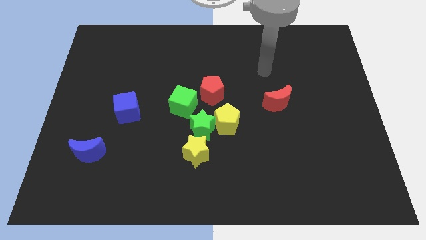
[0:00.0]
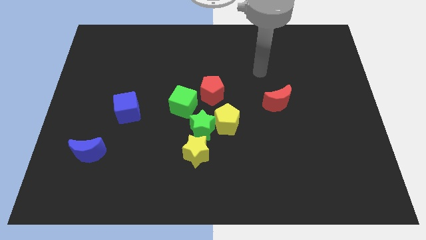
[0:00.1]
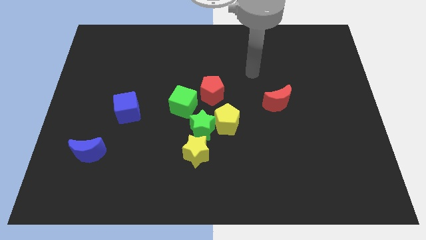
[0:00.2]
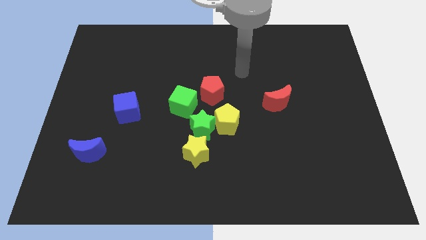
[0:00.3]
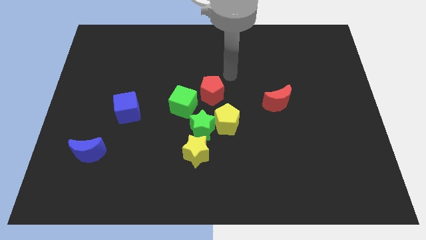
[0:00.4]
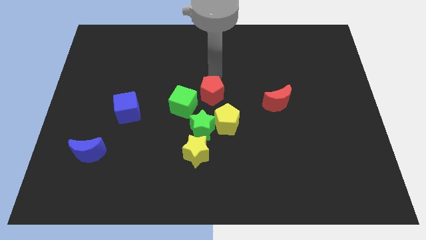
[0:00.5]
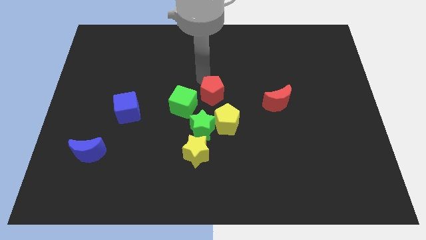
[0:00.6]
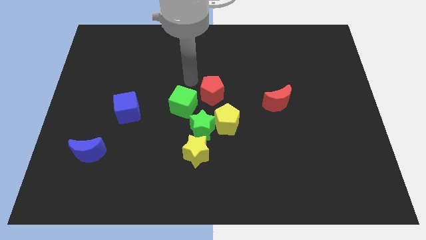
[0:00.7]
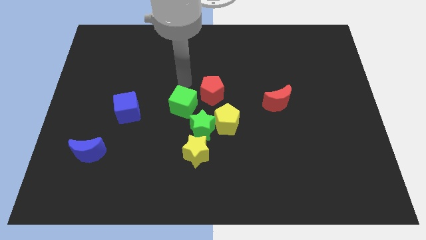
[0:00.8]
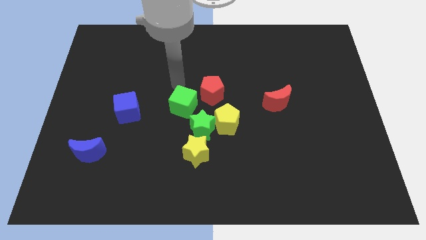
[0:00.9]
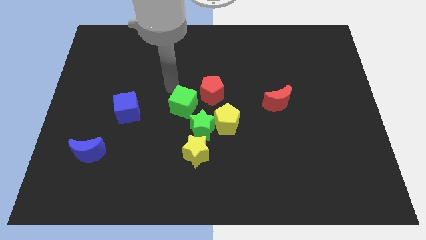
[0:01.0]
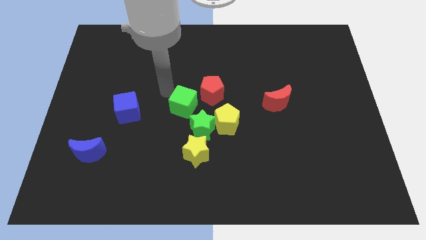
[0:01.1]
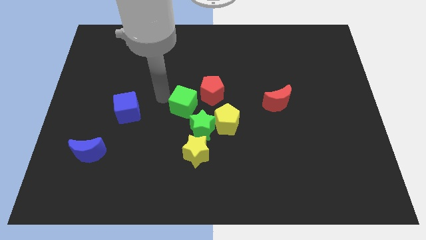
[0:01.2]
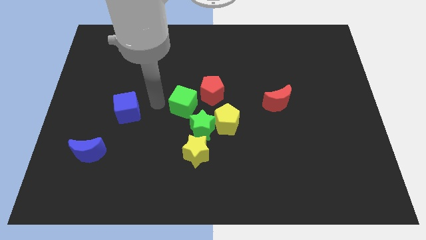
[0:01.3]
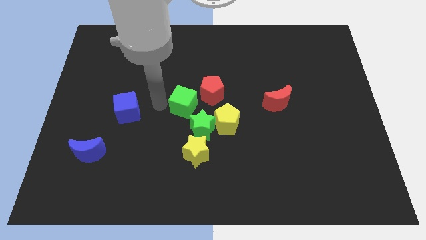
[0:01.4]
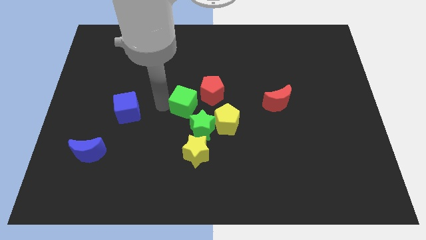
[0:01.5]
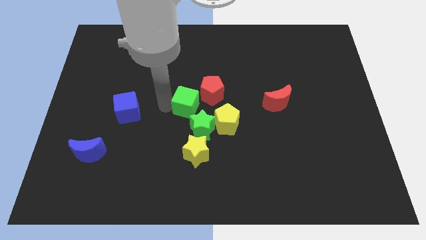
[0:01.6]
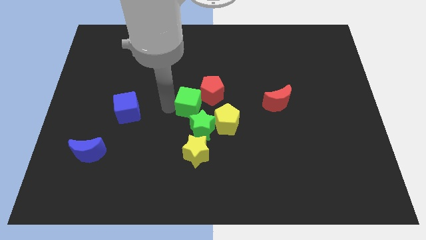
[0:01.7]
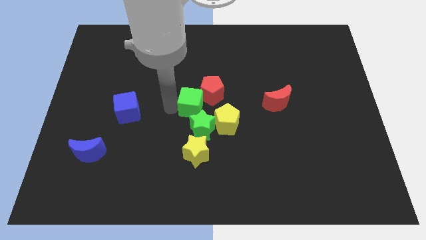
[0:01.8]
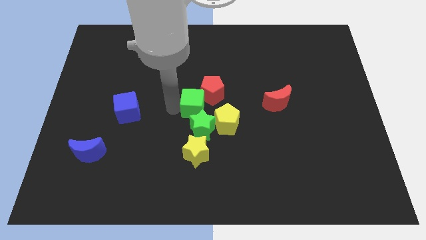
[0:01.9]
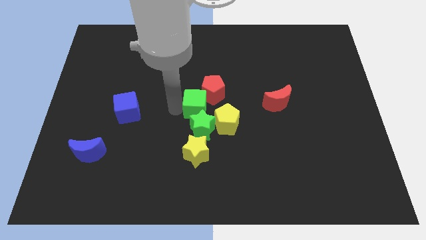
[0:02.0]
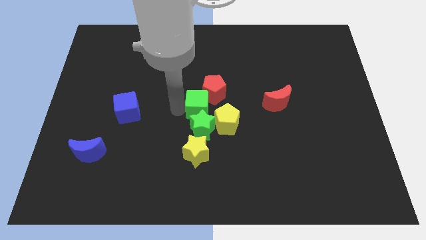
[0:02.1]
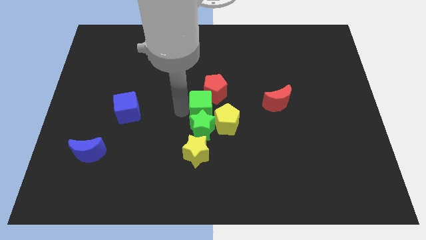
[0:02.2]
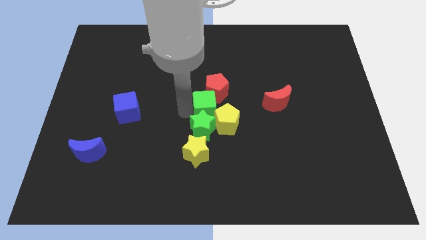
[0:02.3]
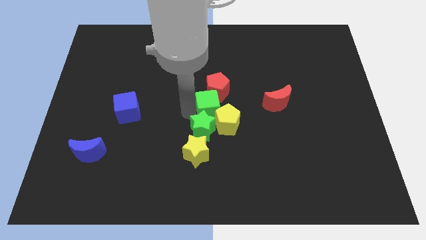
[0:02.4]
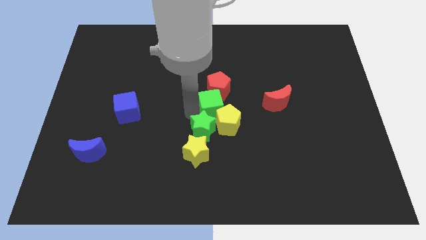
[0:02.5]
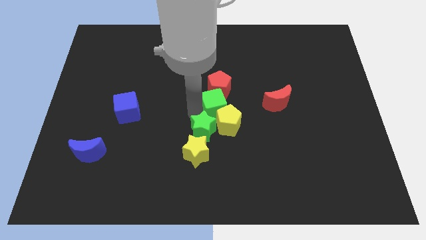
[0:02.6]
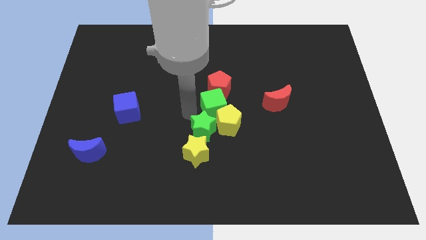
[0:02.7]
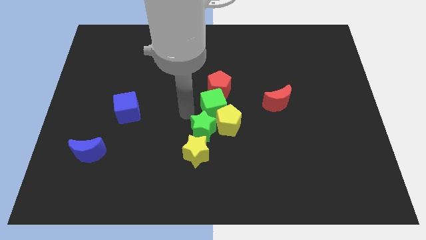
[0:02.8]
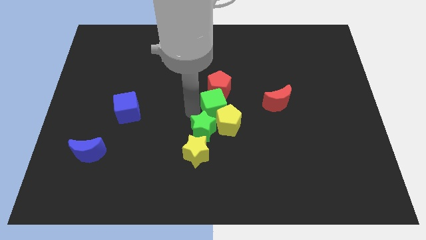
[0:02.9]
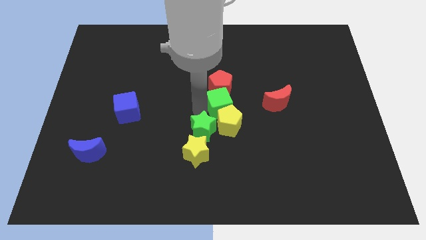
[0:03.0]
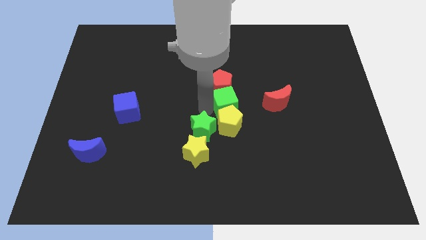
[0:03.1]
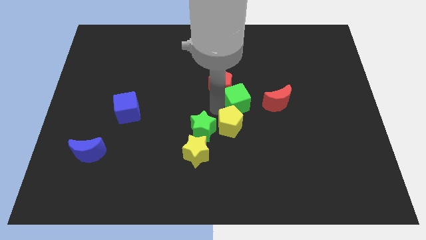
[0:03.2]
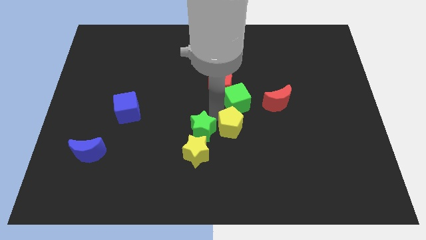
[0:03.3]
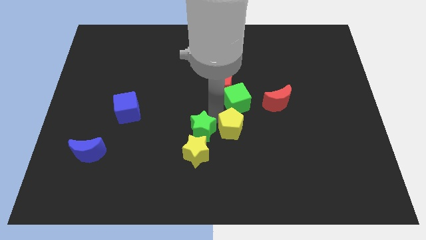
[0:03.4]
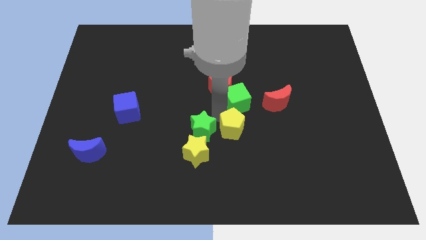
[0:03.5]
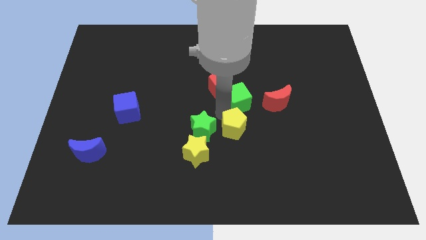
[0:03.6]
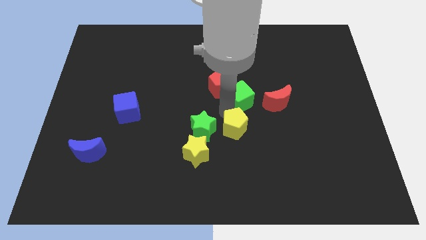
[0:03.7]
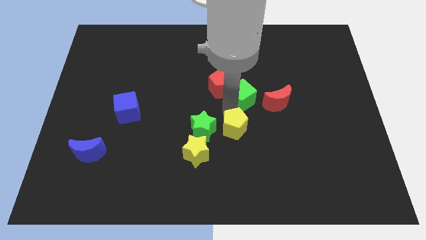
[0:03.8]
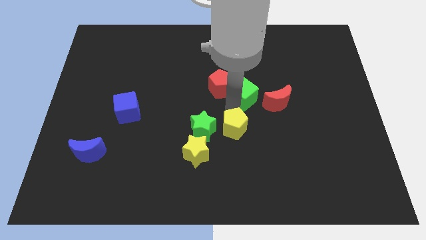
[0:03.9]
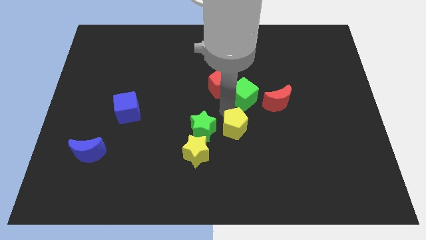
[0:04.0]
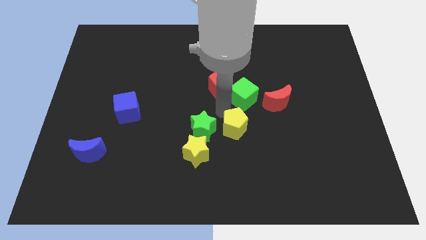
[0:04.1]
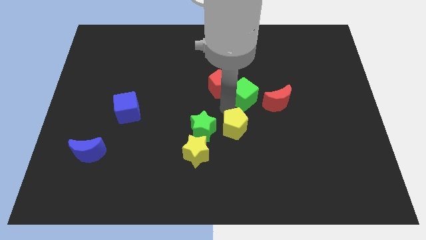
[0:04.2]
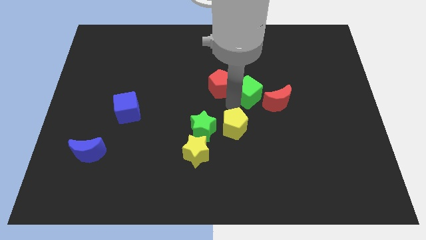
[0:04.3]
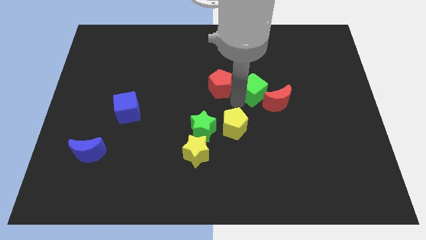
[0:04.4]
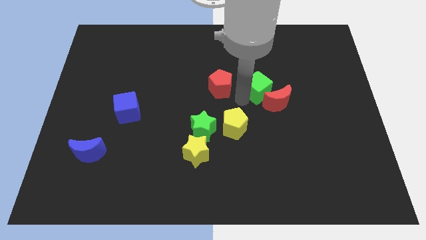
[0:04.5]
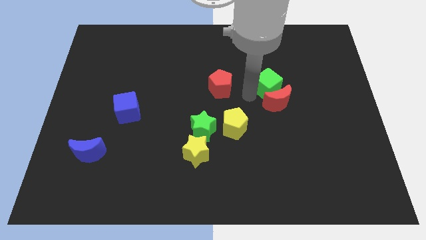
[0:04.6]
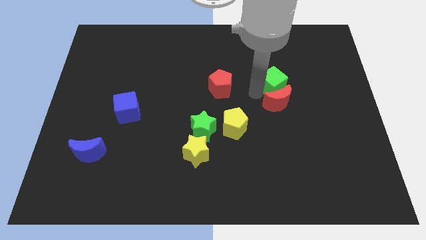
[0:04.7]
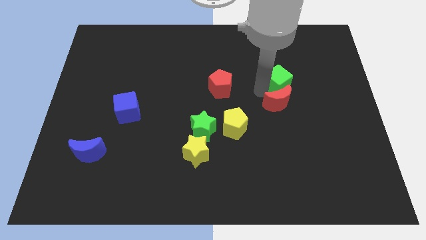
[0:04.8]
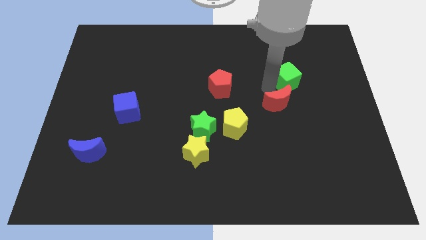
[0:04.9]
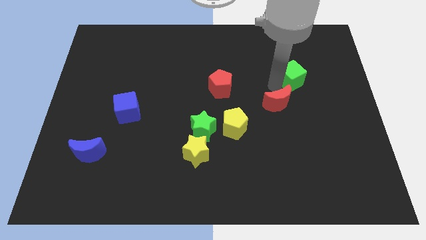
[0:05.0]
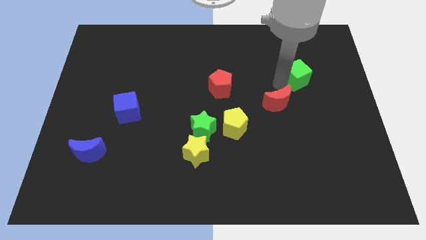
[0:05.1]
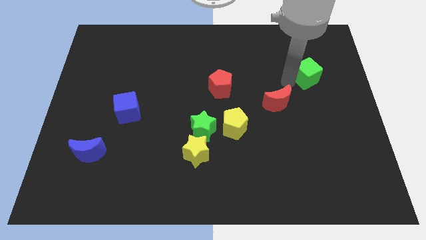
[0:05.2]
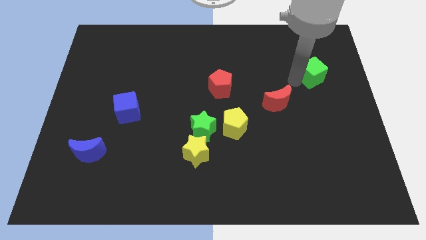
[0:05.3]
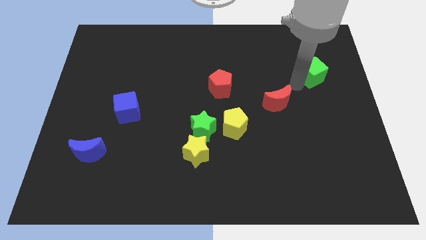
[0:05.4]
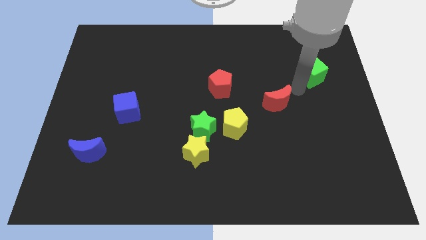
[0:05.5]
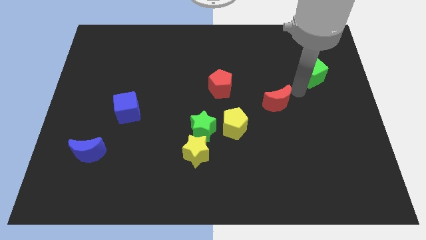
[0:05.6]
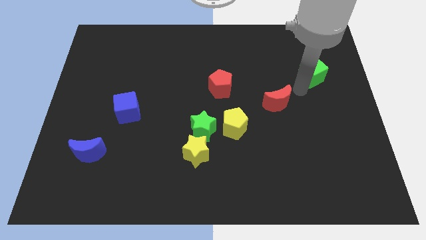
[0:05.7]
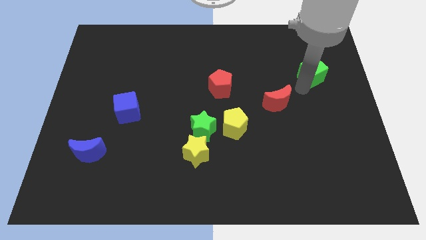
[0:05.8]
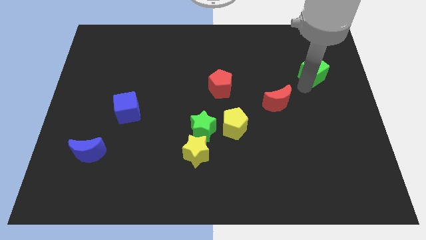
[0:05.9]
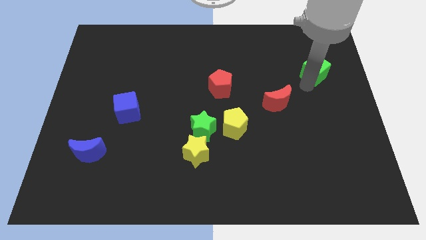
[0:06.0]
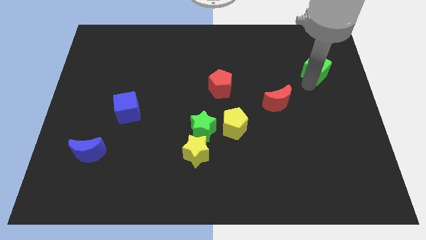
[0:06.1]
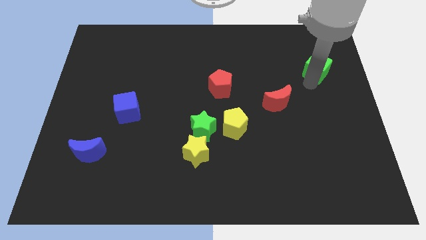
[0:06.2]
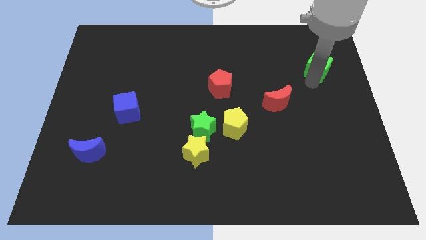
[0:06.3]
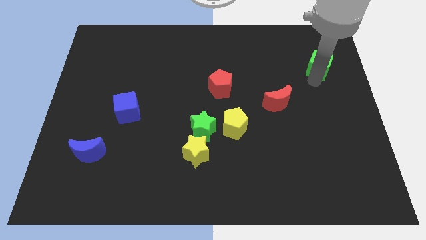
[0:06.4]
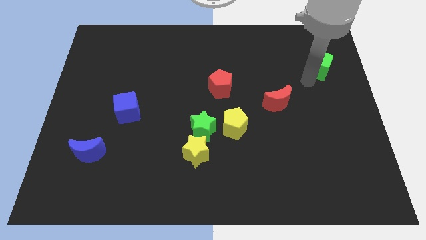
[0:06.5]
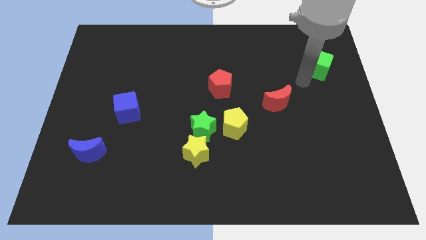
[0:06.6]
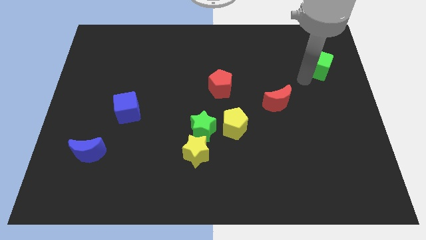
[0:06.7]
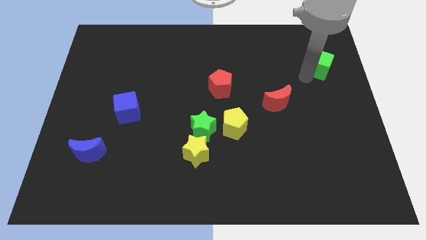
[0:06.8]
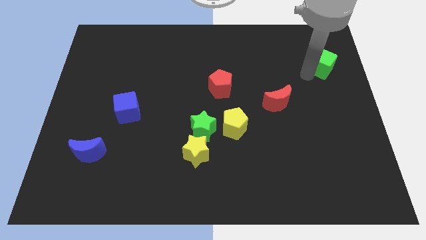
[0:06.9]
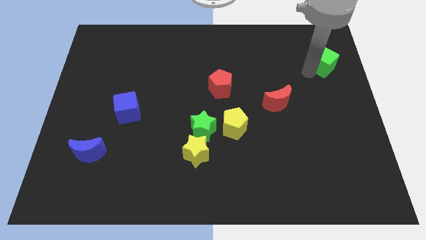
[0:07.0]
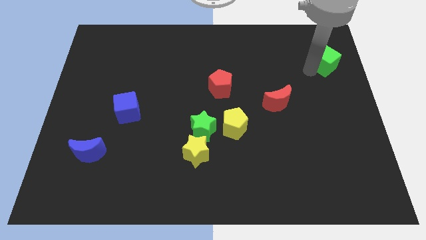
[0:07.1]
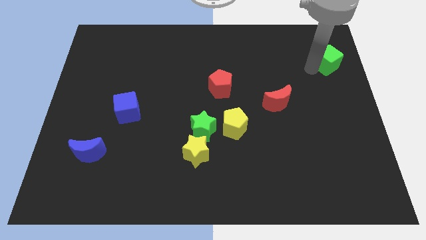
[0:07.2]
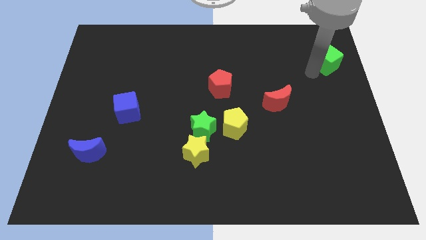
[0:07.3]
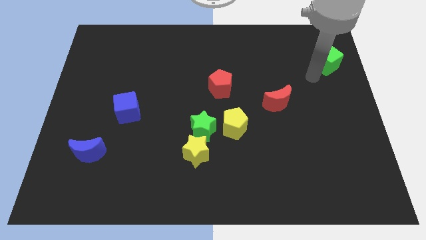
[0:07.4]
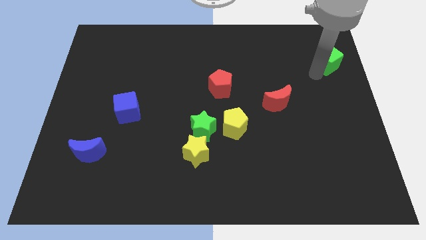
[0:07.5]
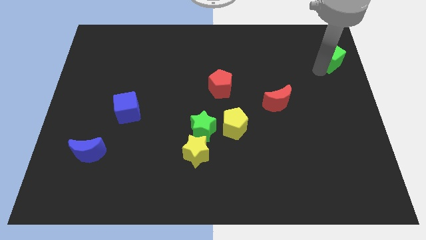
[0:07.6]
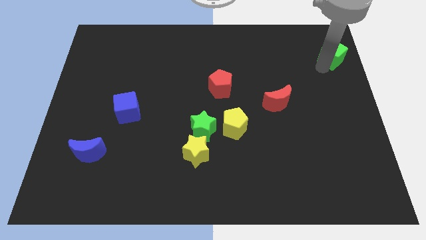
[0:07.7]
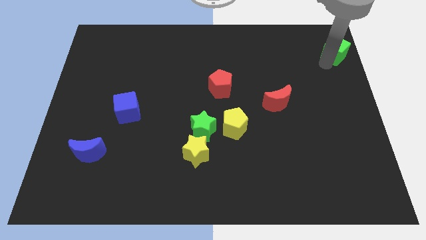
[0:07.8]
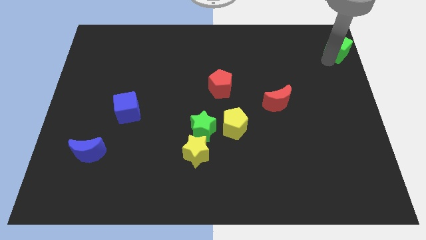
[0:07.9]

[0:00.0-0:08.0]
push the green cube to the upper right corner
